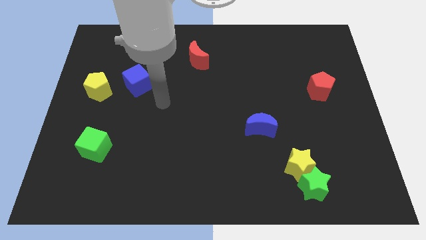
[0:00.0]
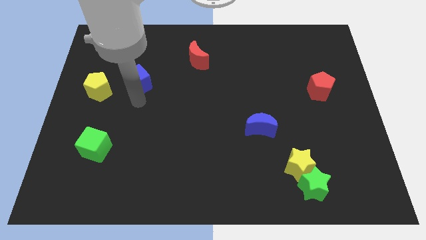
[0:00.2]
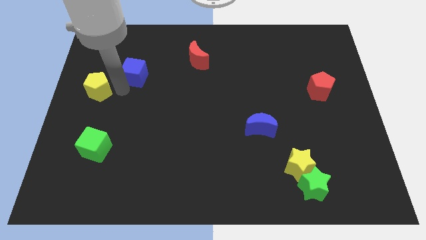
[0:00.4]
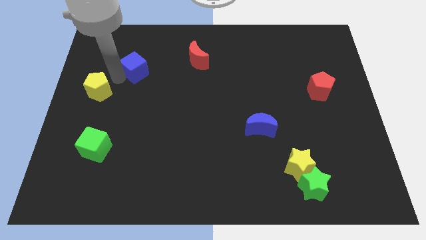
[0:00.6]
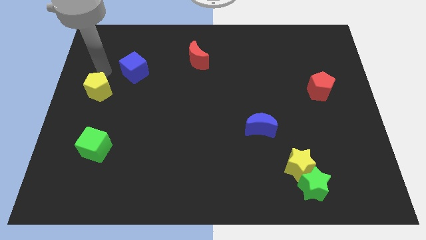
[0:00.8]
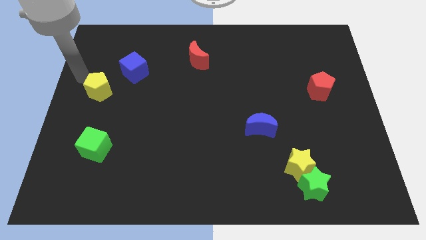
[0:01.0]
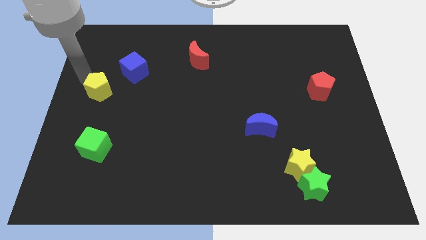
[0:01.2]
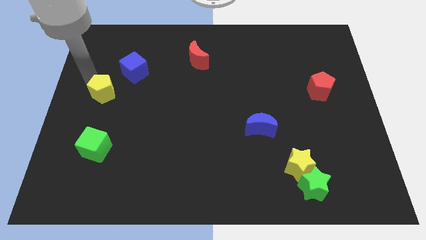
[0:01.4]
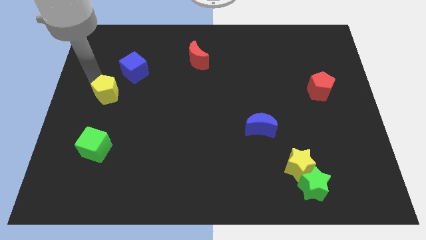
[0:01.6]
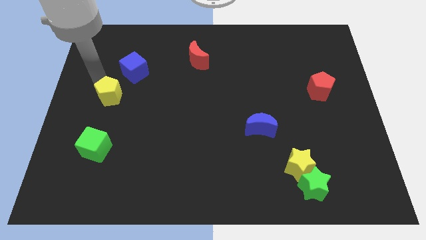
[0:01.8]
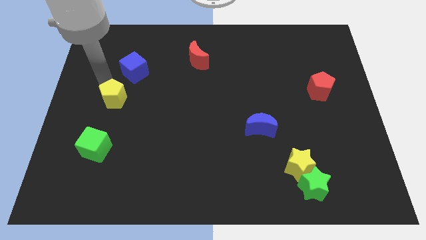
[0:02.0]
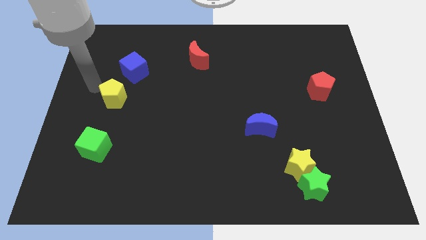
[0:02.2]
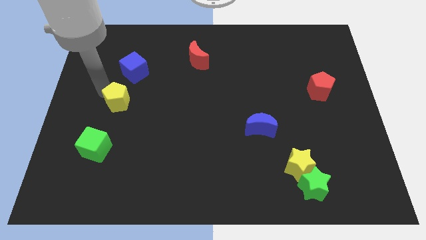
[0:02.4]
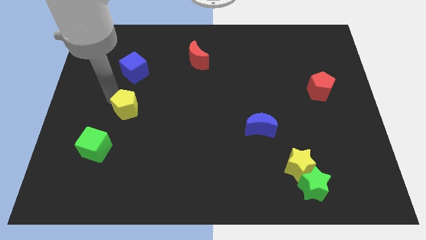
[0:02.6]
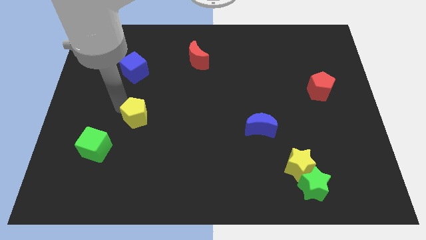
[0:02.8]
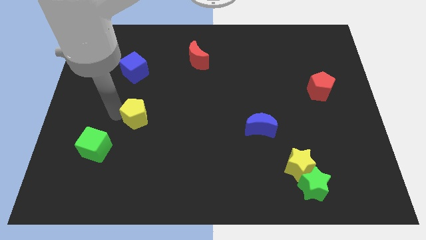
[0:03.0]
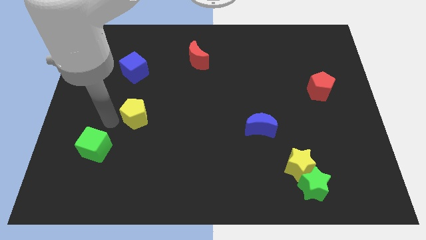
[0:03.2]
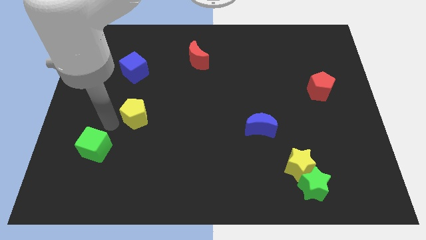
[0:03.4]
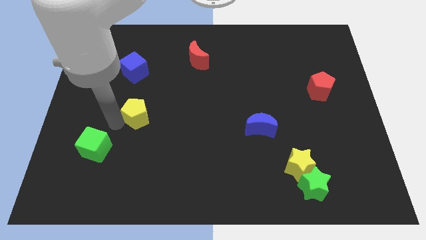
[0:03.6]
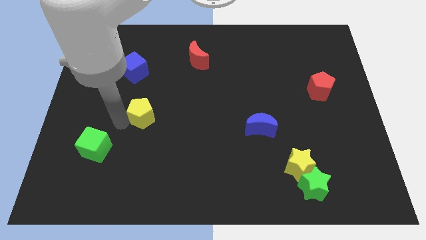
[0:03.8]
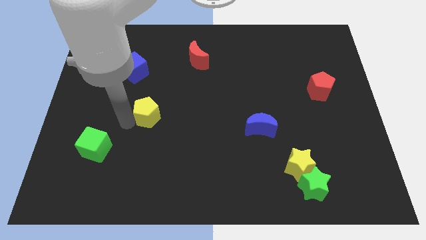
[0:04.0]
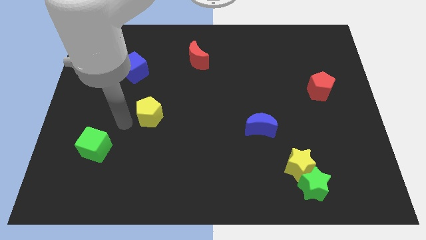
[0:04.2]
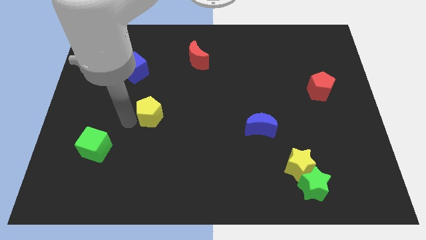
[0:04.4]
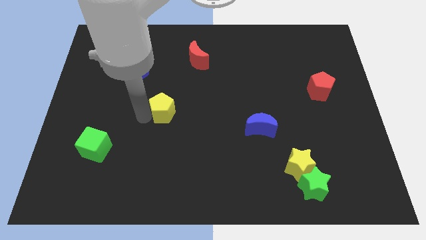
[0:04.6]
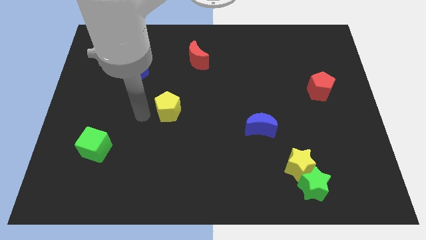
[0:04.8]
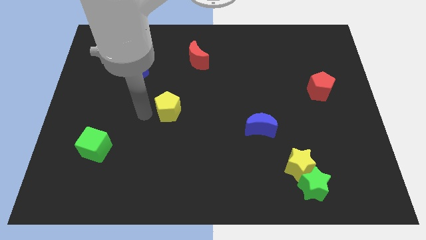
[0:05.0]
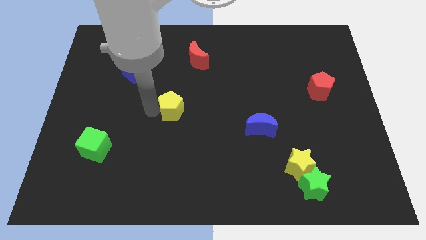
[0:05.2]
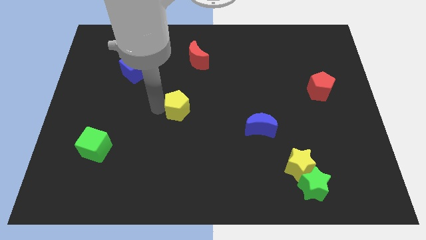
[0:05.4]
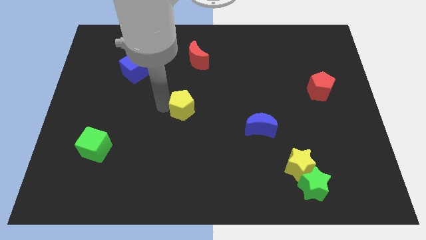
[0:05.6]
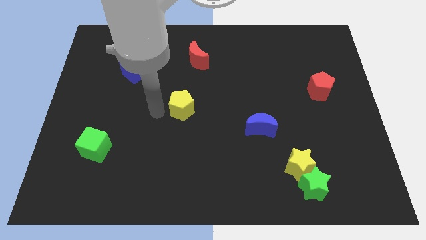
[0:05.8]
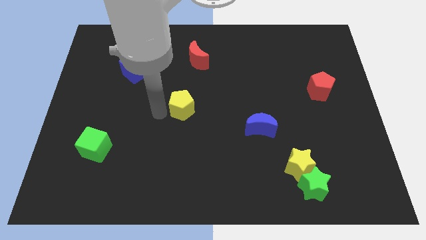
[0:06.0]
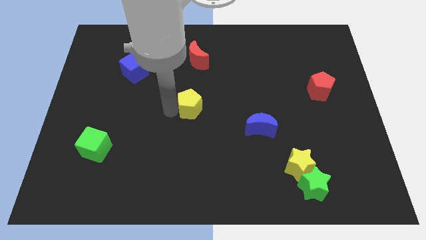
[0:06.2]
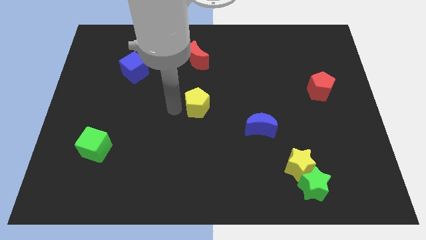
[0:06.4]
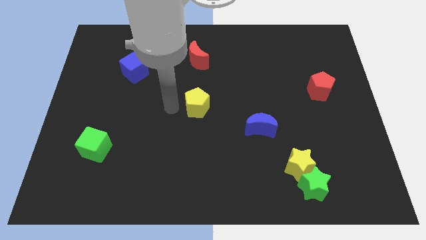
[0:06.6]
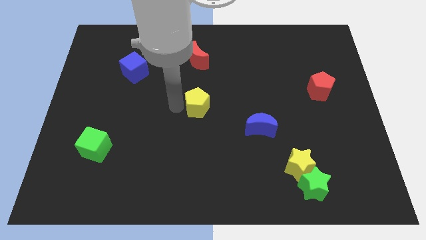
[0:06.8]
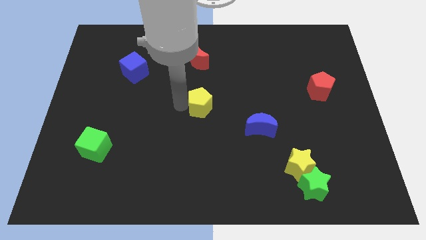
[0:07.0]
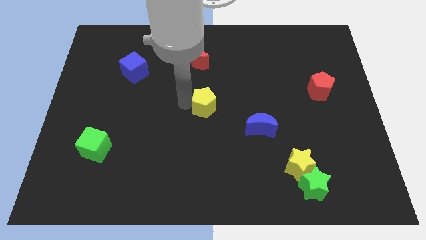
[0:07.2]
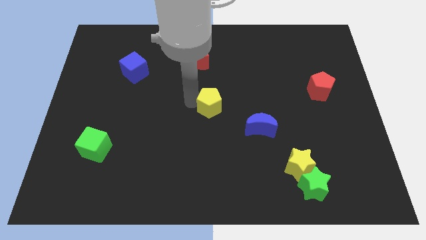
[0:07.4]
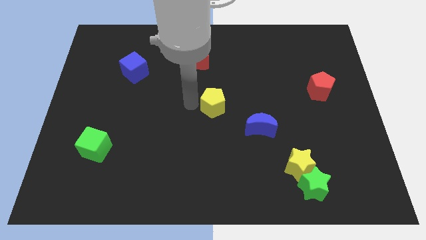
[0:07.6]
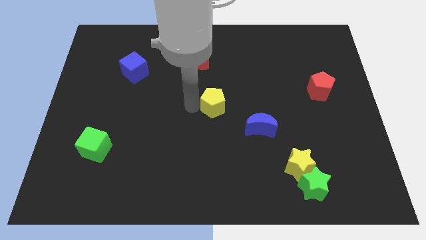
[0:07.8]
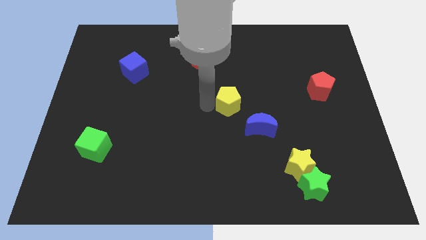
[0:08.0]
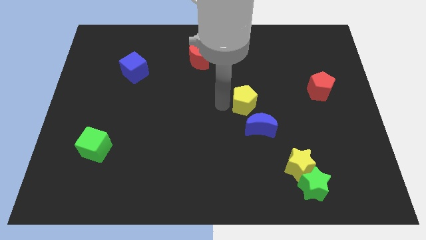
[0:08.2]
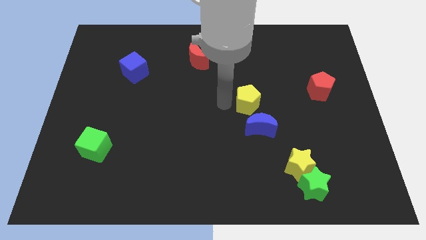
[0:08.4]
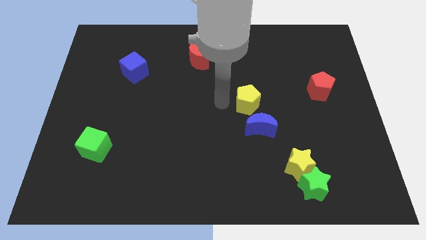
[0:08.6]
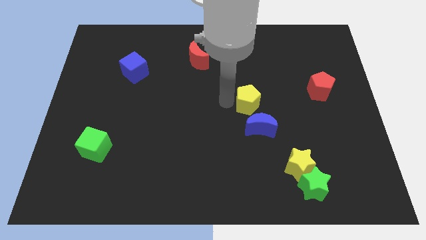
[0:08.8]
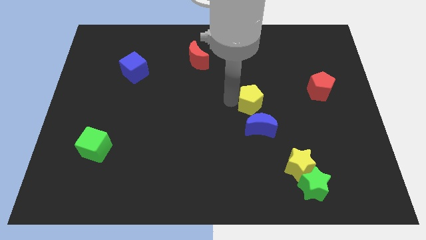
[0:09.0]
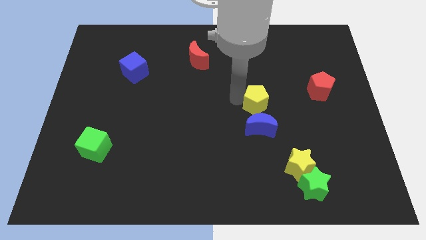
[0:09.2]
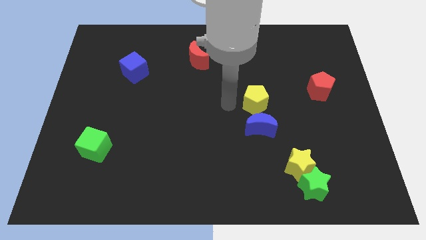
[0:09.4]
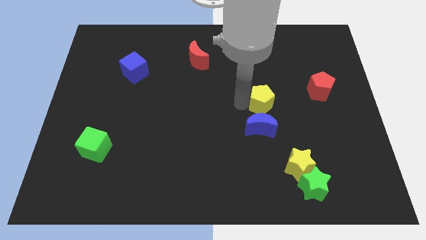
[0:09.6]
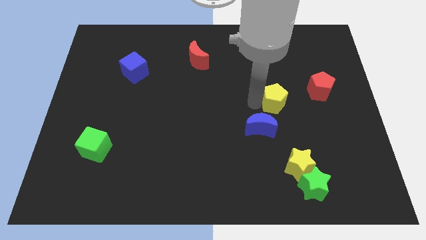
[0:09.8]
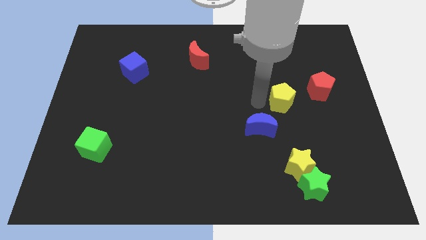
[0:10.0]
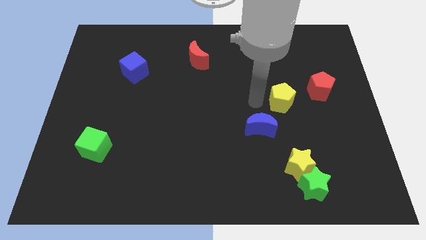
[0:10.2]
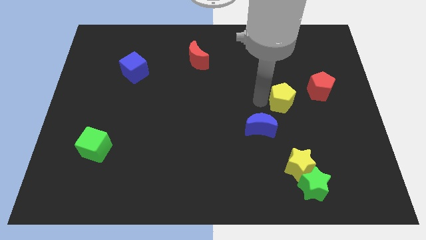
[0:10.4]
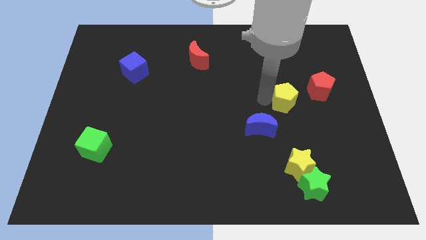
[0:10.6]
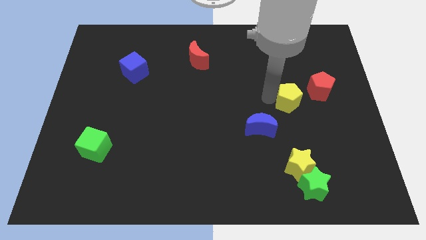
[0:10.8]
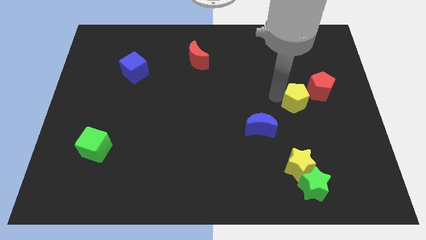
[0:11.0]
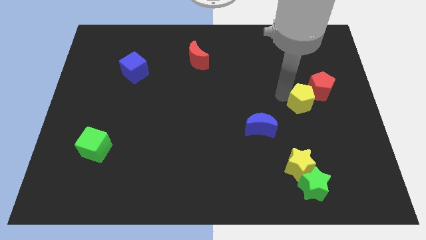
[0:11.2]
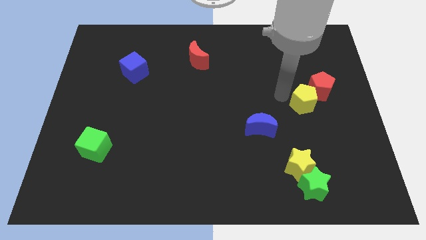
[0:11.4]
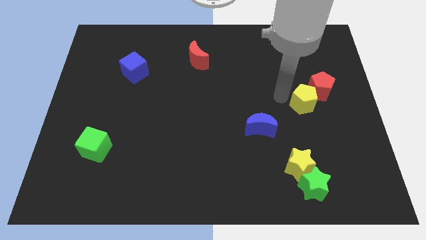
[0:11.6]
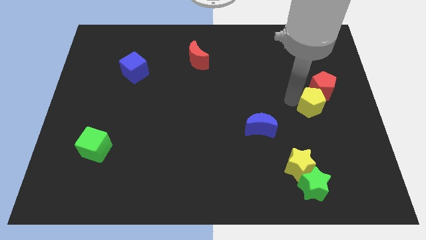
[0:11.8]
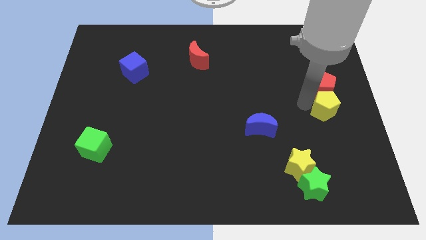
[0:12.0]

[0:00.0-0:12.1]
put the yellow pentagon to the right side

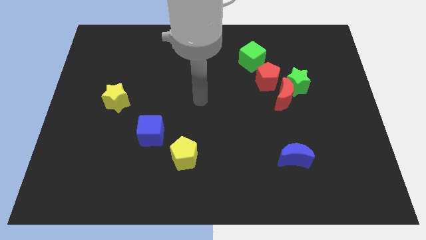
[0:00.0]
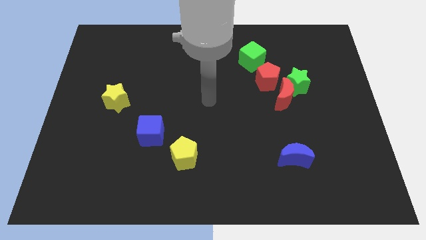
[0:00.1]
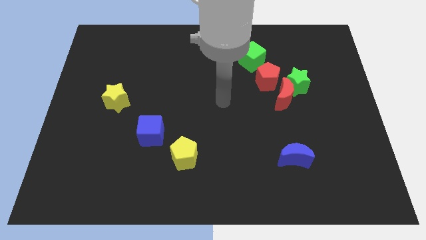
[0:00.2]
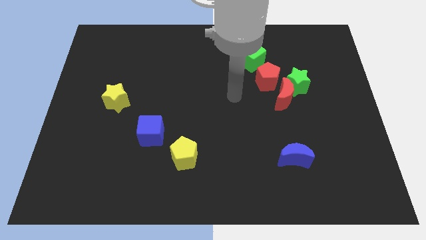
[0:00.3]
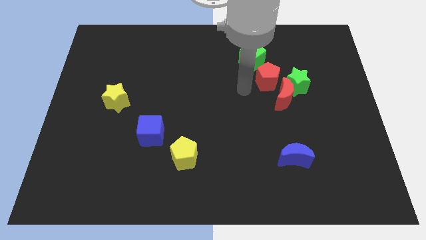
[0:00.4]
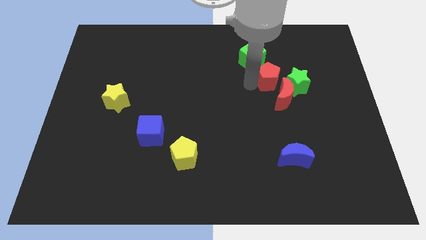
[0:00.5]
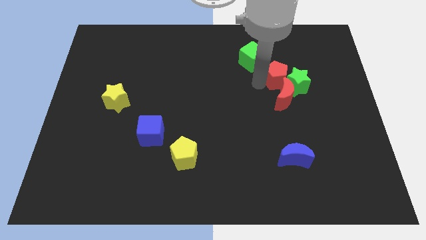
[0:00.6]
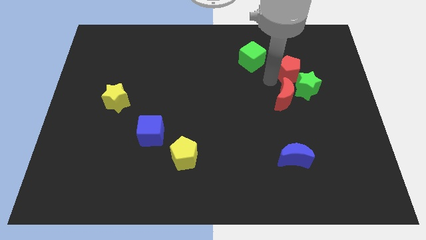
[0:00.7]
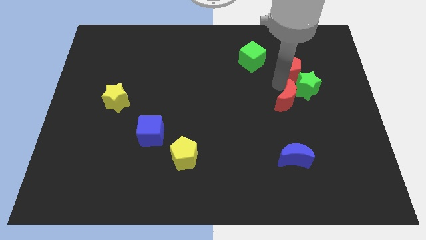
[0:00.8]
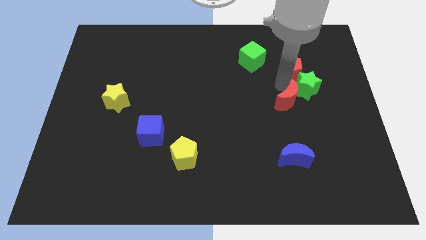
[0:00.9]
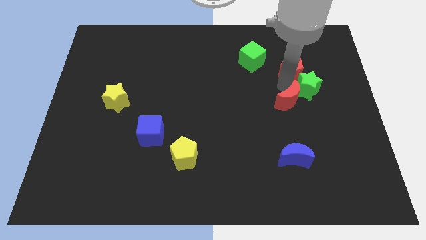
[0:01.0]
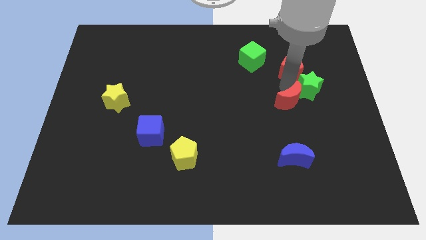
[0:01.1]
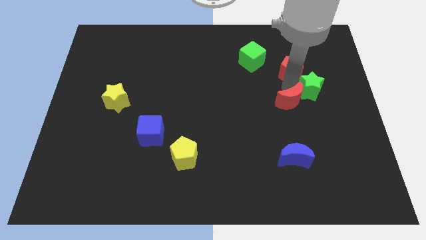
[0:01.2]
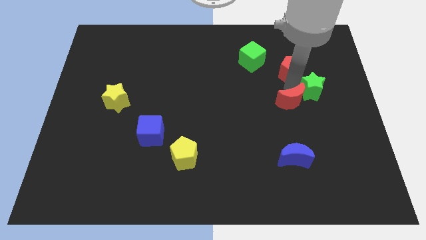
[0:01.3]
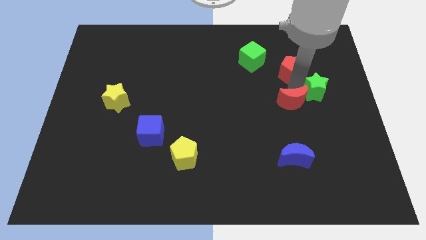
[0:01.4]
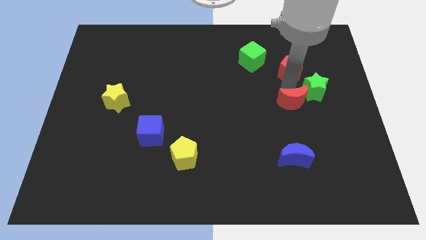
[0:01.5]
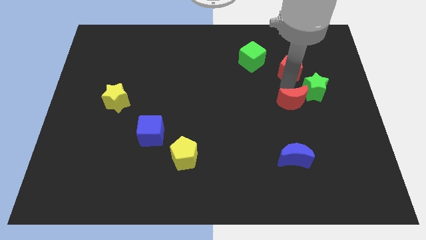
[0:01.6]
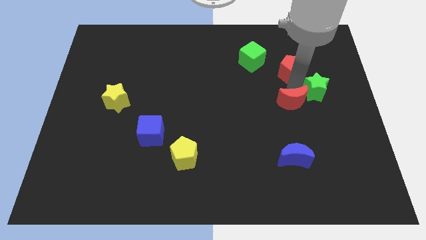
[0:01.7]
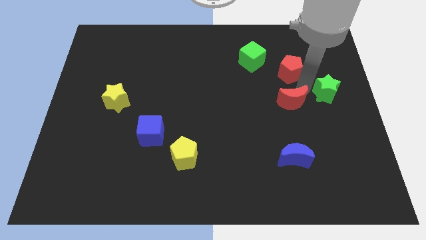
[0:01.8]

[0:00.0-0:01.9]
put the green star to the right side of the board
